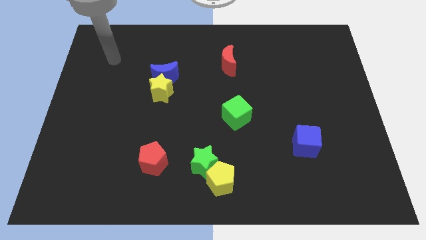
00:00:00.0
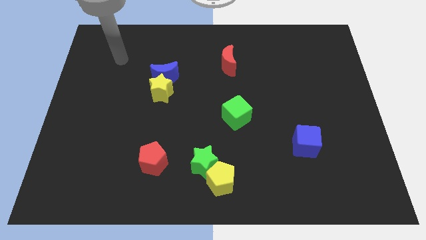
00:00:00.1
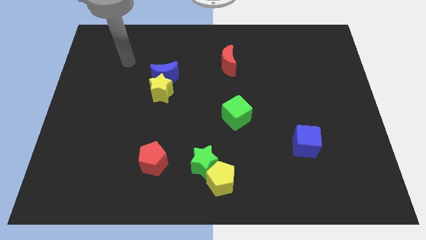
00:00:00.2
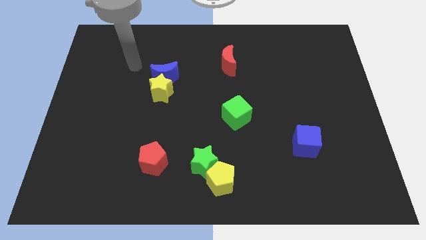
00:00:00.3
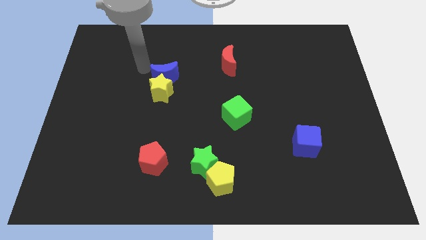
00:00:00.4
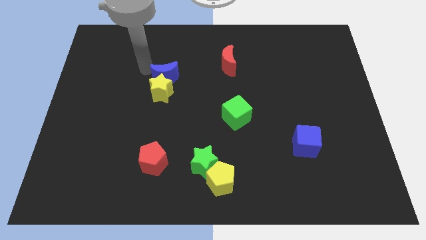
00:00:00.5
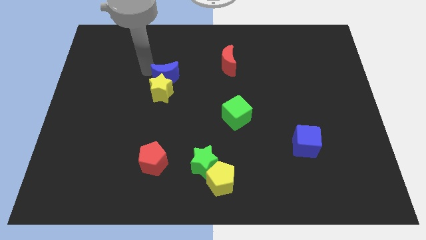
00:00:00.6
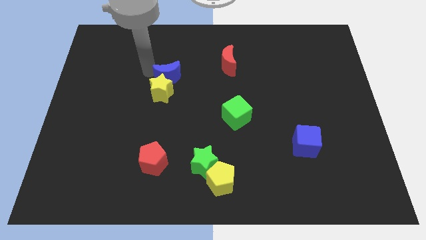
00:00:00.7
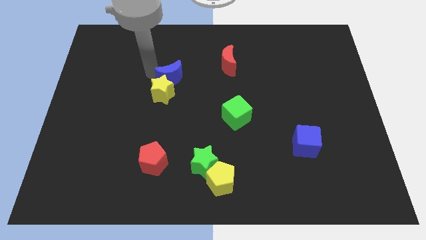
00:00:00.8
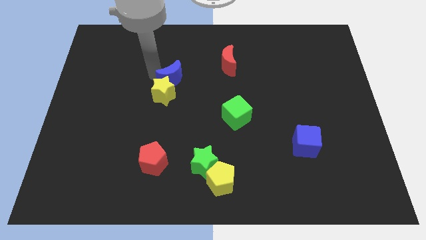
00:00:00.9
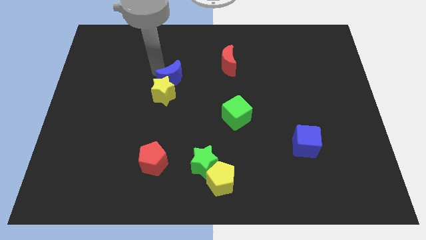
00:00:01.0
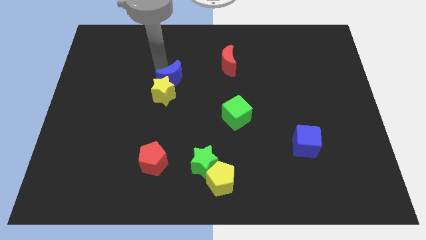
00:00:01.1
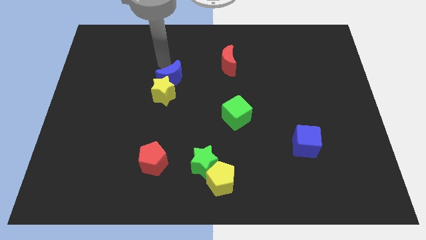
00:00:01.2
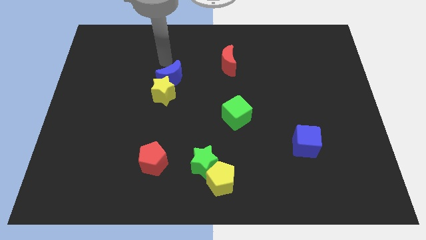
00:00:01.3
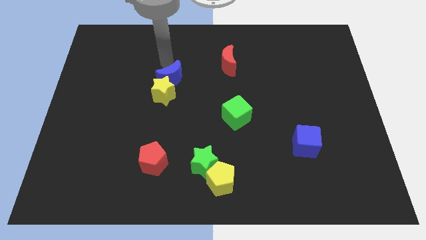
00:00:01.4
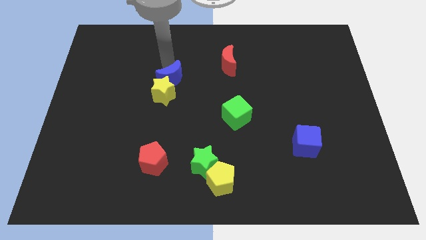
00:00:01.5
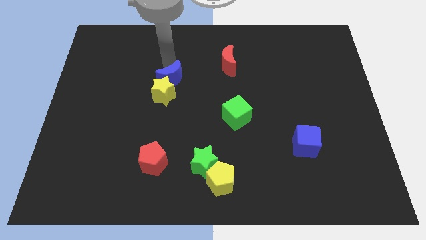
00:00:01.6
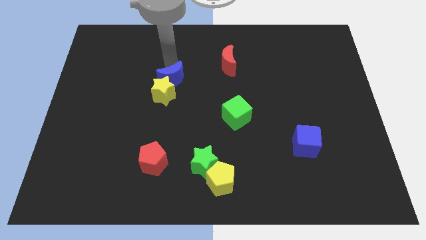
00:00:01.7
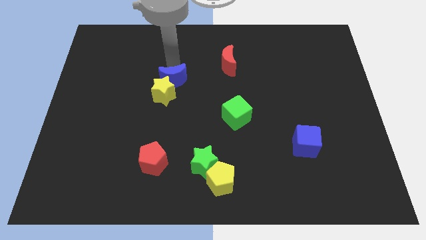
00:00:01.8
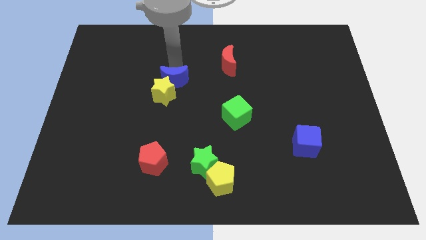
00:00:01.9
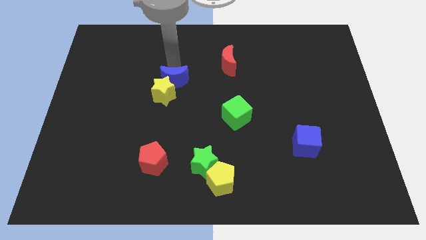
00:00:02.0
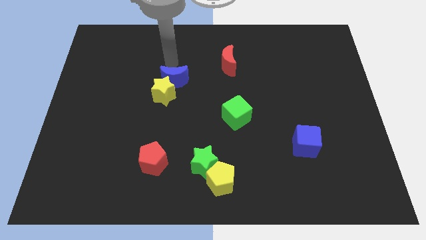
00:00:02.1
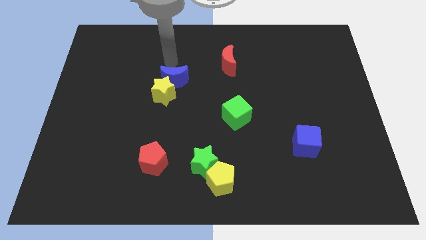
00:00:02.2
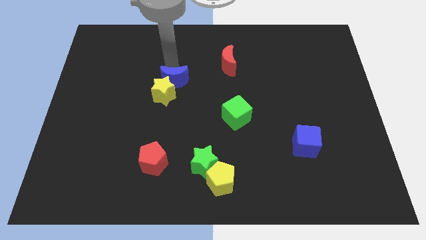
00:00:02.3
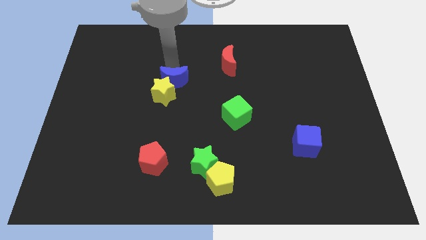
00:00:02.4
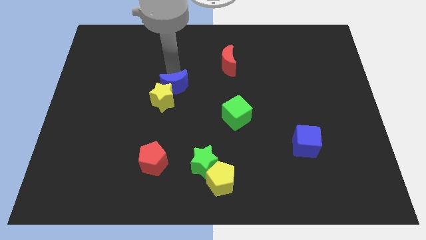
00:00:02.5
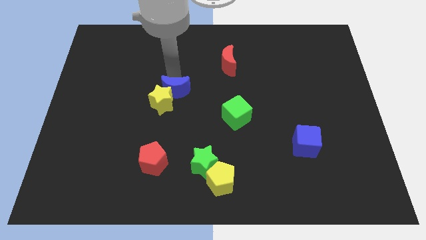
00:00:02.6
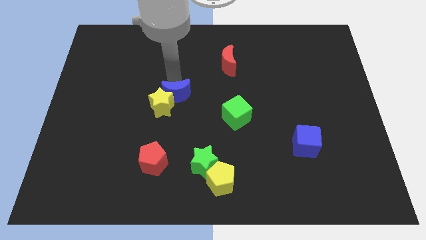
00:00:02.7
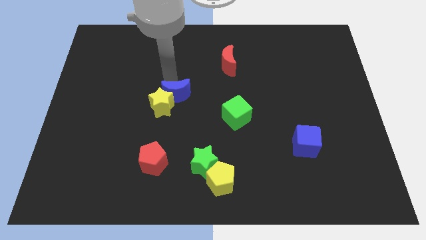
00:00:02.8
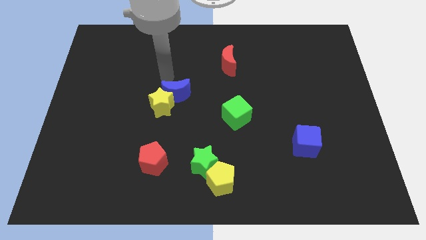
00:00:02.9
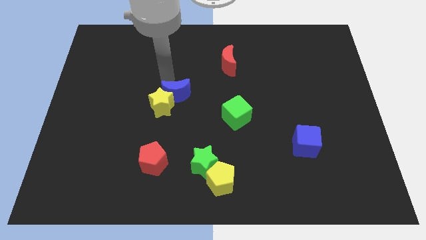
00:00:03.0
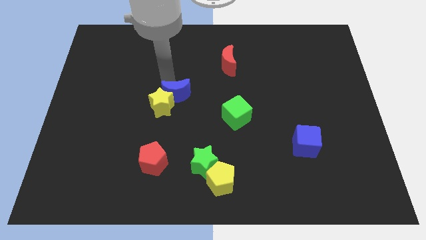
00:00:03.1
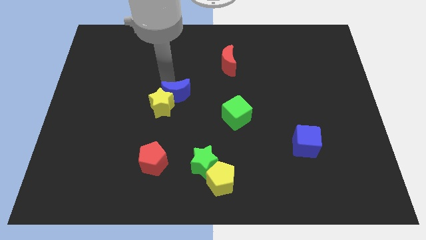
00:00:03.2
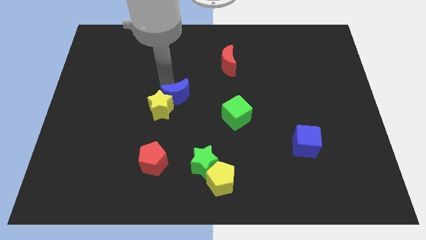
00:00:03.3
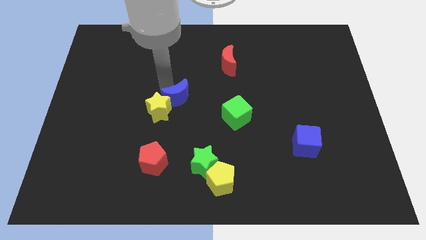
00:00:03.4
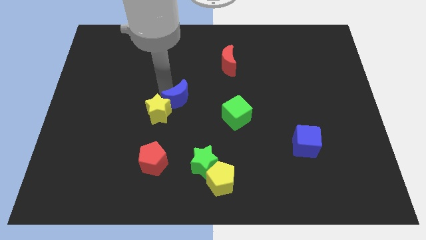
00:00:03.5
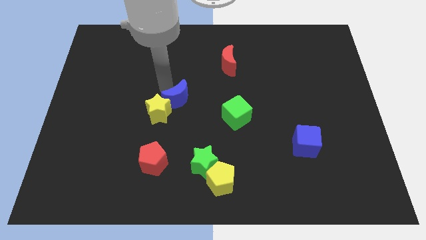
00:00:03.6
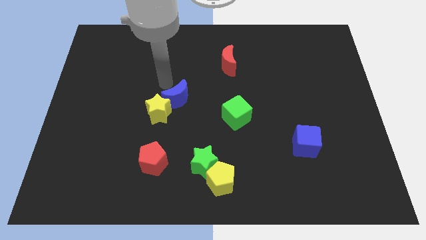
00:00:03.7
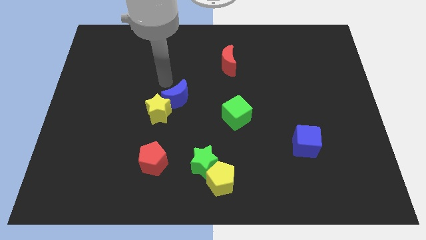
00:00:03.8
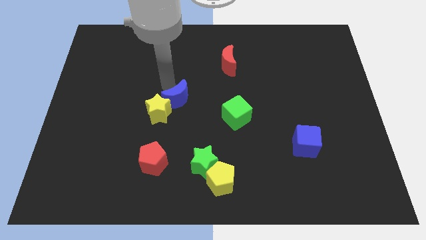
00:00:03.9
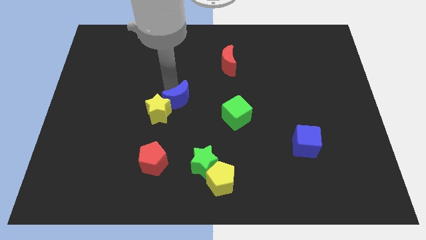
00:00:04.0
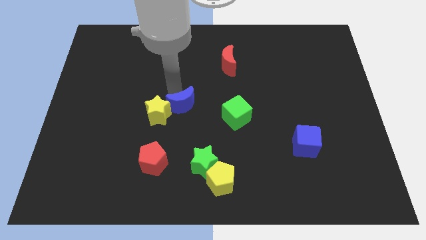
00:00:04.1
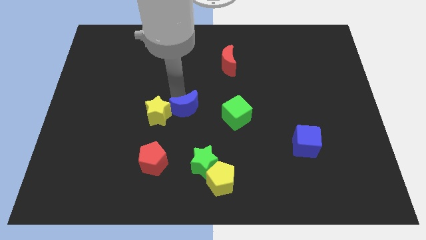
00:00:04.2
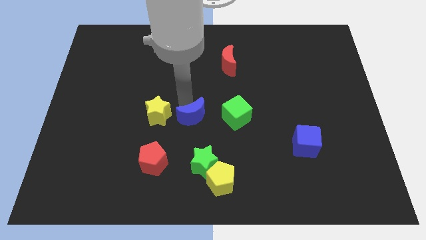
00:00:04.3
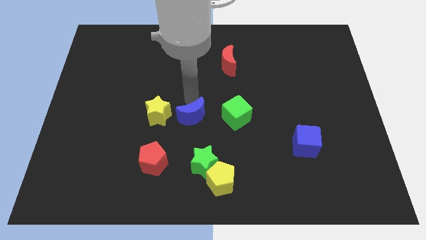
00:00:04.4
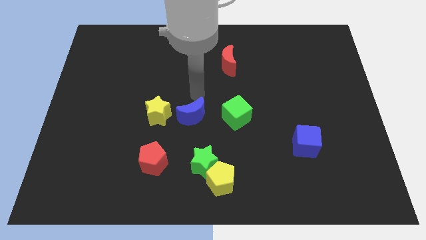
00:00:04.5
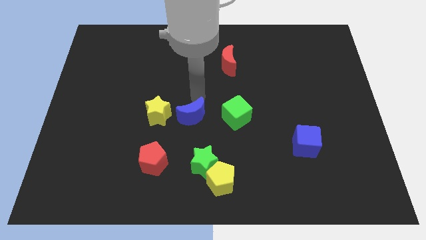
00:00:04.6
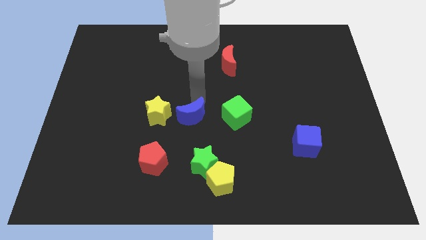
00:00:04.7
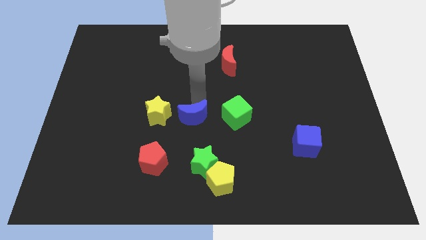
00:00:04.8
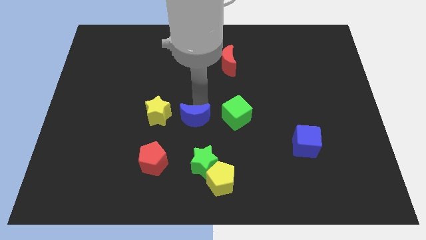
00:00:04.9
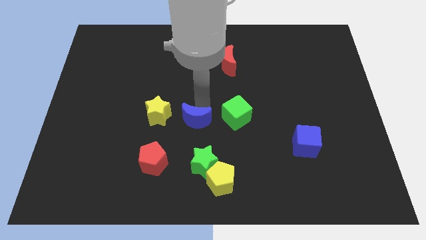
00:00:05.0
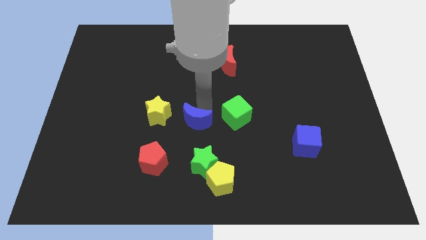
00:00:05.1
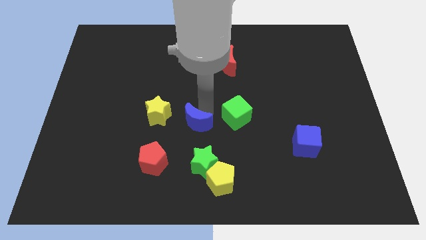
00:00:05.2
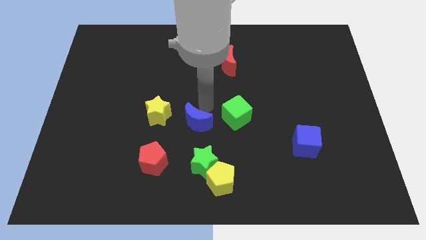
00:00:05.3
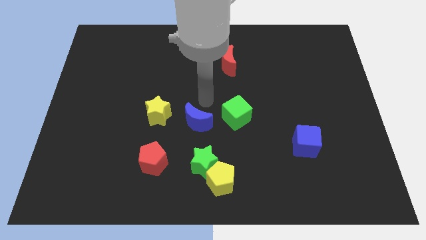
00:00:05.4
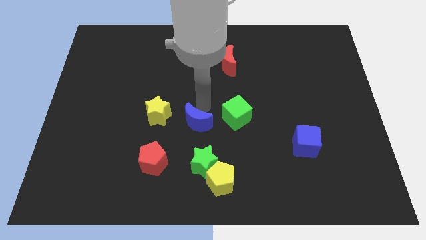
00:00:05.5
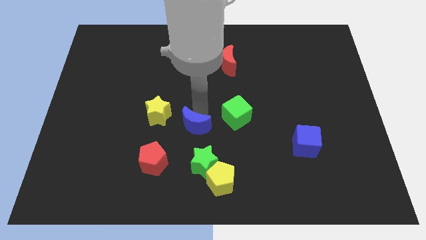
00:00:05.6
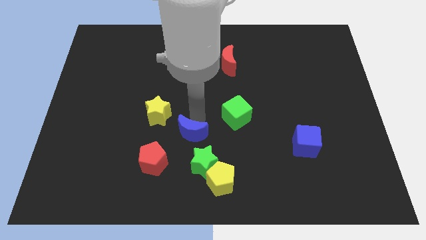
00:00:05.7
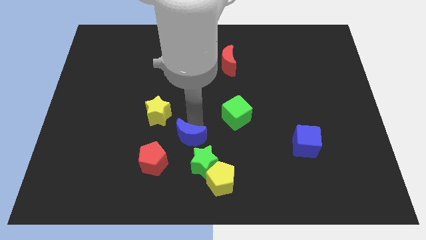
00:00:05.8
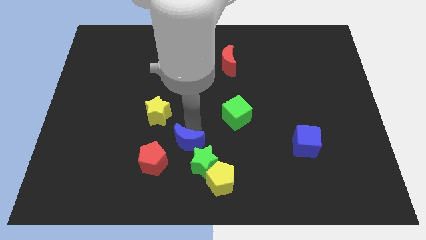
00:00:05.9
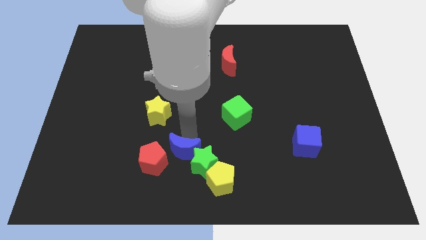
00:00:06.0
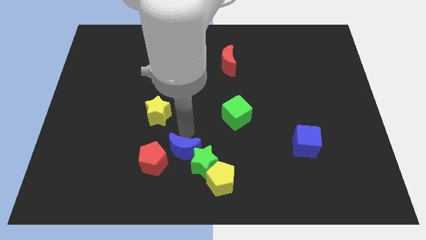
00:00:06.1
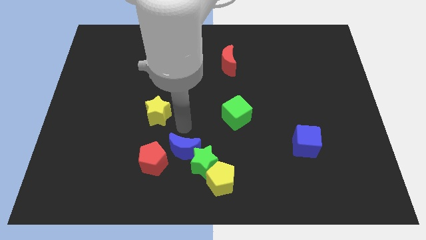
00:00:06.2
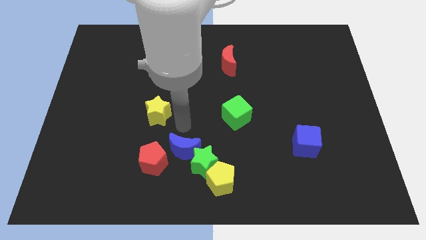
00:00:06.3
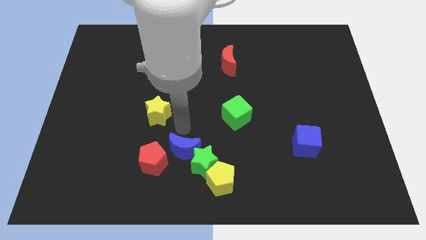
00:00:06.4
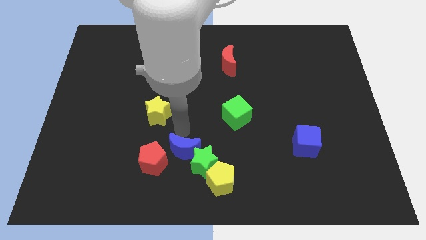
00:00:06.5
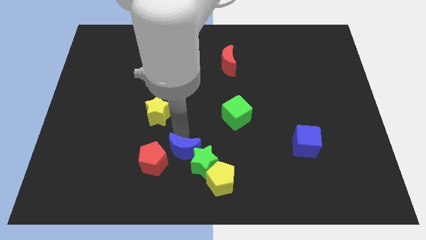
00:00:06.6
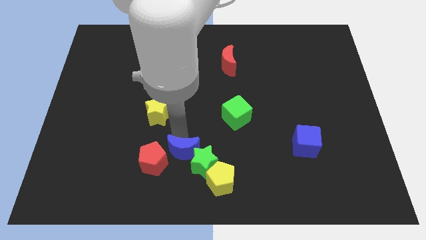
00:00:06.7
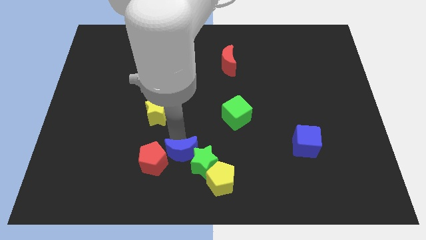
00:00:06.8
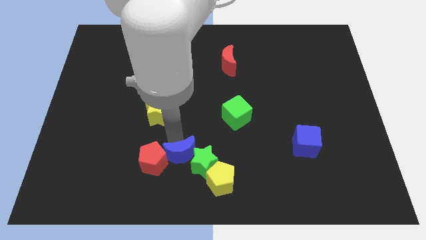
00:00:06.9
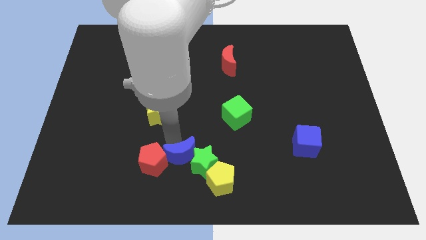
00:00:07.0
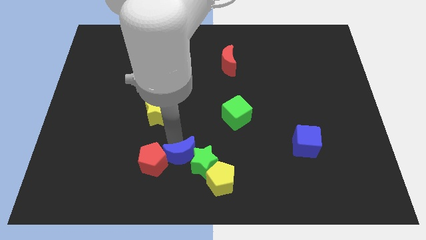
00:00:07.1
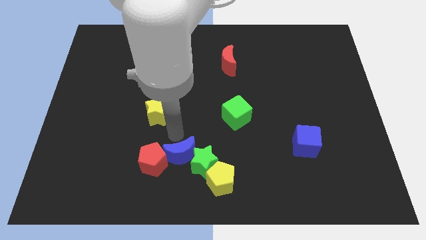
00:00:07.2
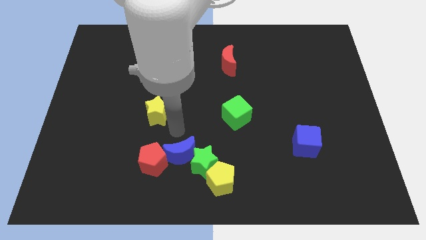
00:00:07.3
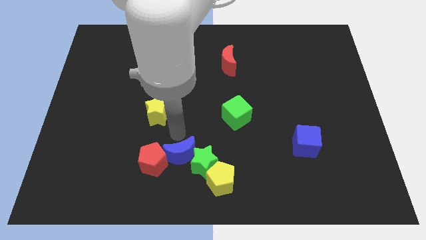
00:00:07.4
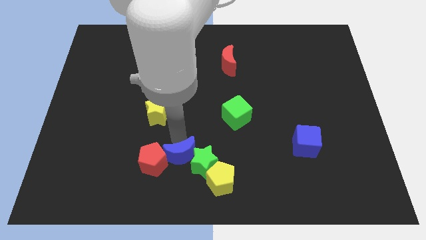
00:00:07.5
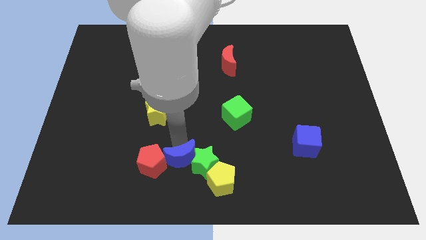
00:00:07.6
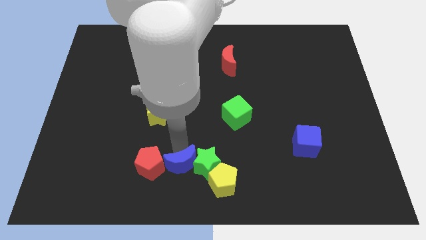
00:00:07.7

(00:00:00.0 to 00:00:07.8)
move the blue moon to the bottom side
